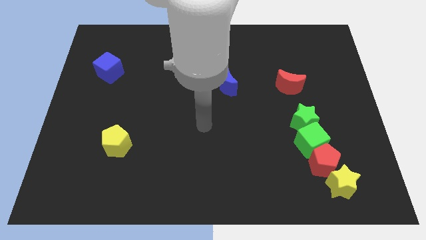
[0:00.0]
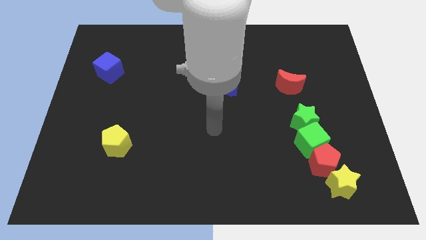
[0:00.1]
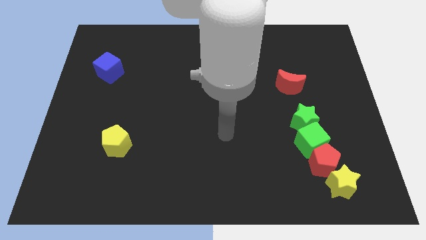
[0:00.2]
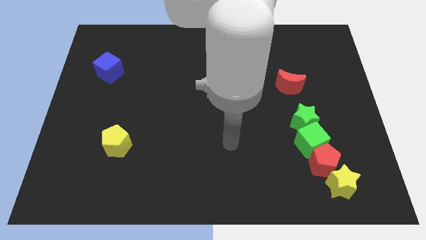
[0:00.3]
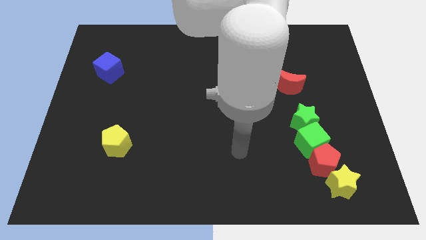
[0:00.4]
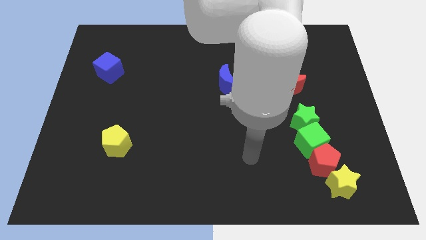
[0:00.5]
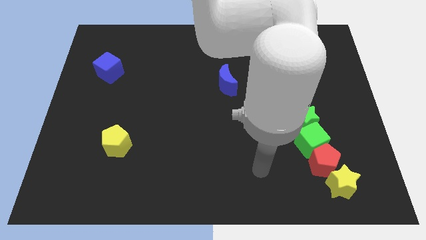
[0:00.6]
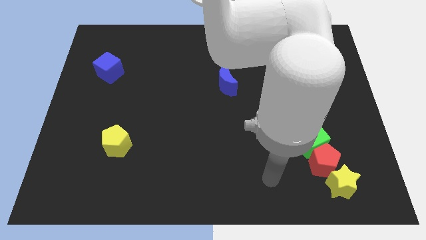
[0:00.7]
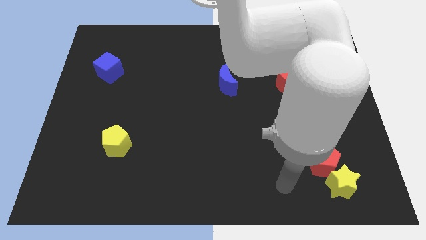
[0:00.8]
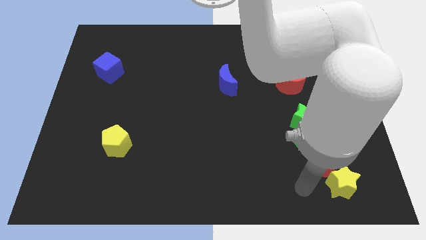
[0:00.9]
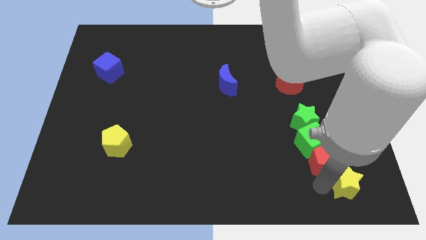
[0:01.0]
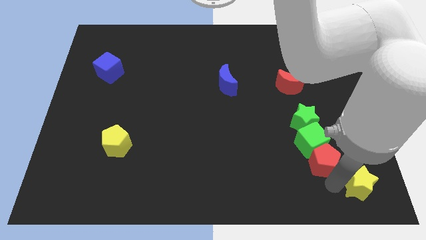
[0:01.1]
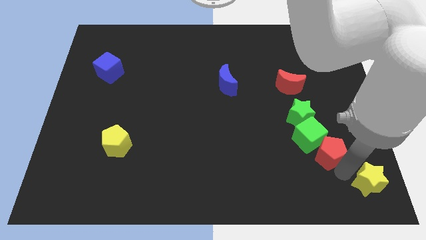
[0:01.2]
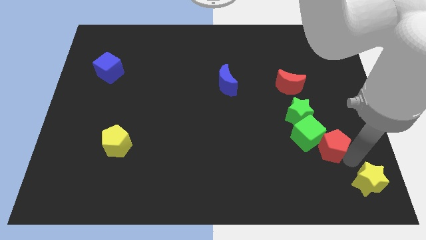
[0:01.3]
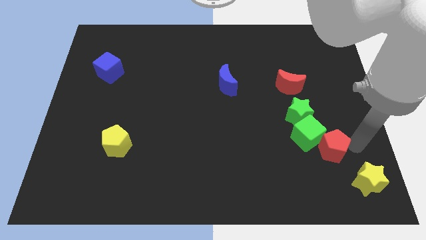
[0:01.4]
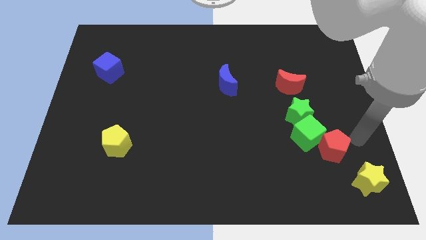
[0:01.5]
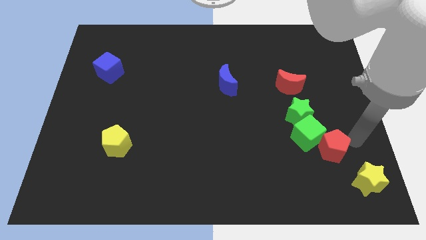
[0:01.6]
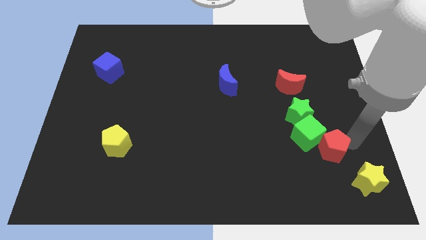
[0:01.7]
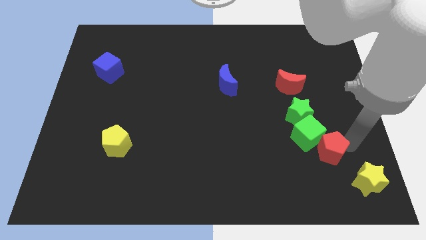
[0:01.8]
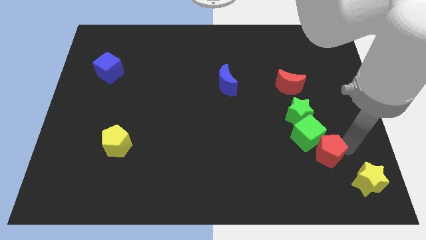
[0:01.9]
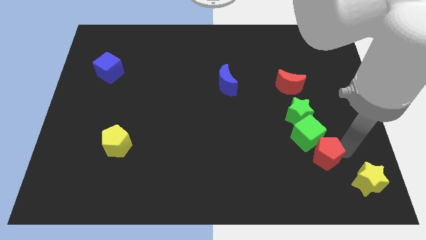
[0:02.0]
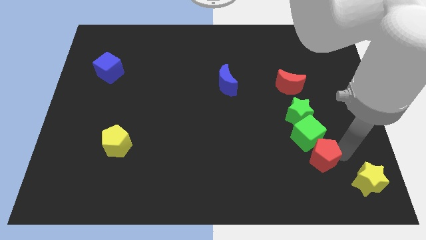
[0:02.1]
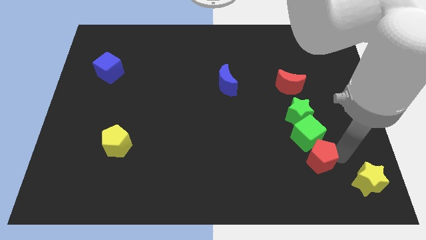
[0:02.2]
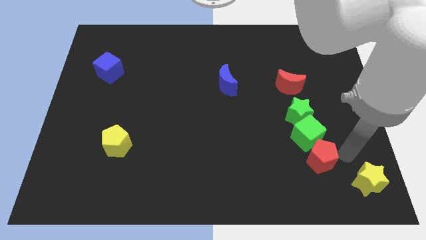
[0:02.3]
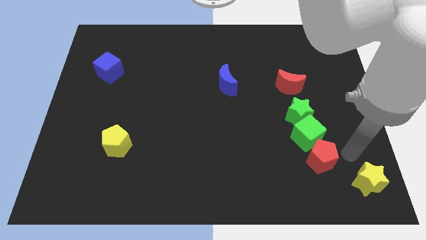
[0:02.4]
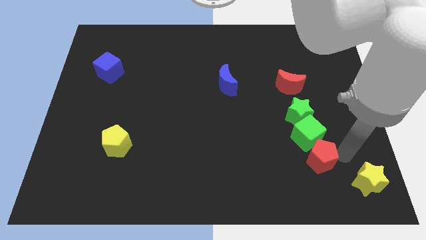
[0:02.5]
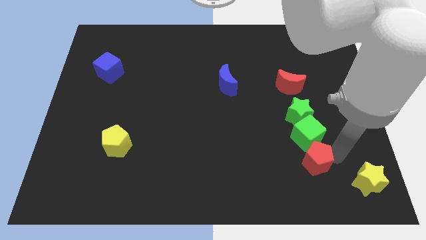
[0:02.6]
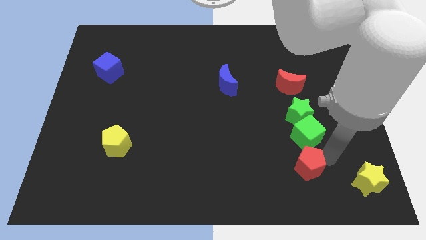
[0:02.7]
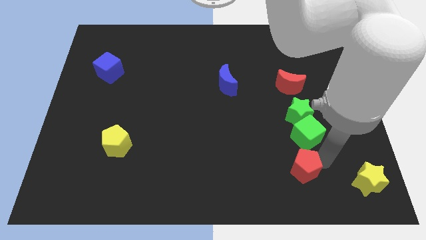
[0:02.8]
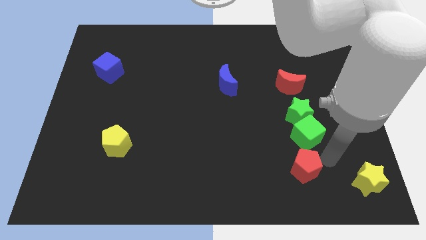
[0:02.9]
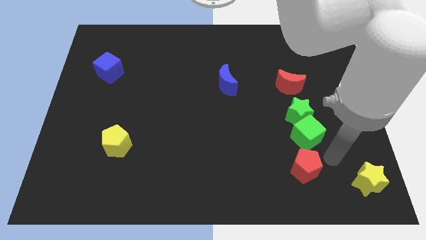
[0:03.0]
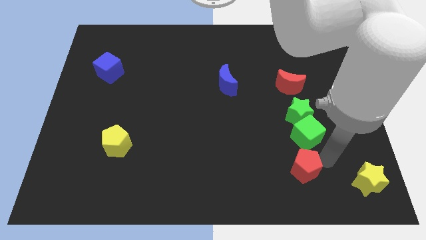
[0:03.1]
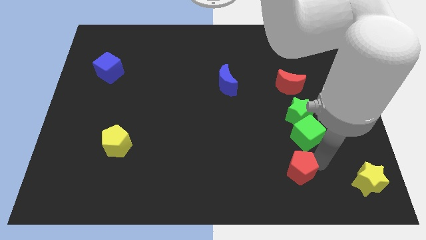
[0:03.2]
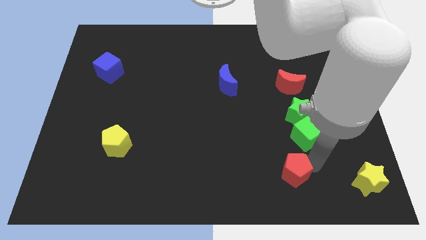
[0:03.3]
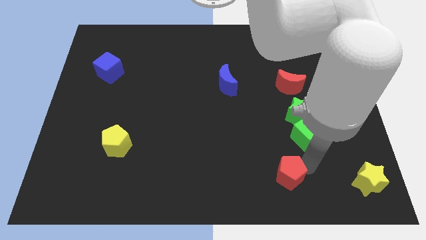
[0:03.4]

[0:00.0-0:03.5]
move the red pentagon away from the green cube and yellow star

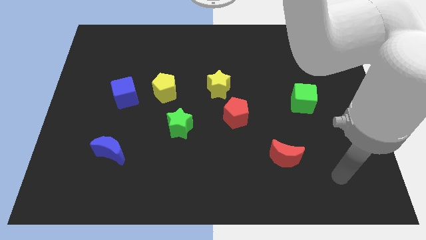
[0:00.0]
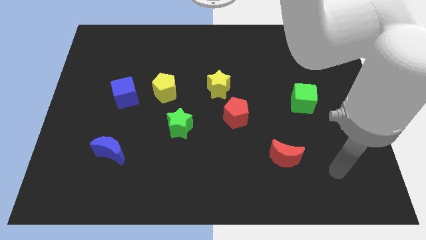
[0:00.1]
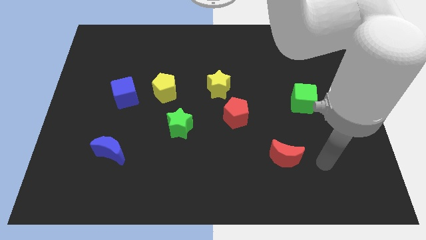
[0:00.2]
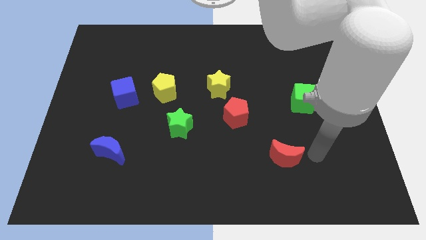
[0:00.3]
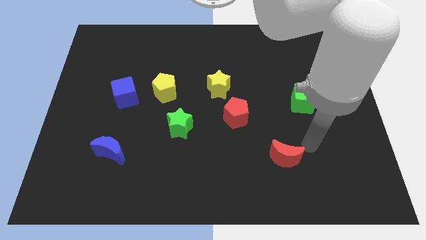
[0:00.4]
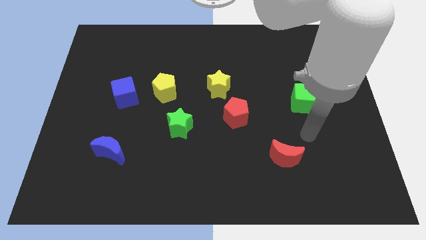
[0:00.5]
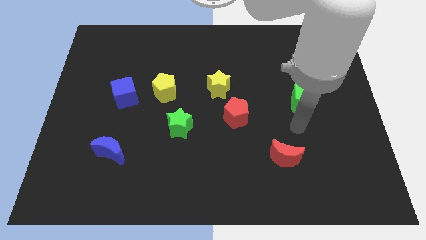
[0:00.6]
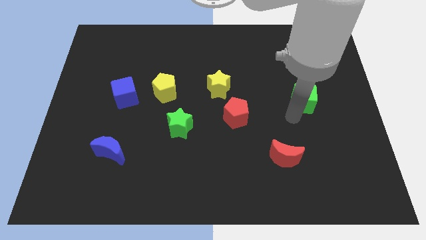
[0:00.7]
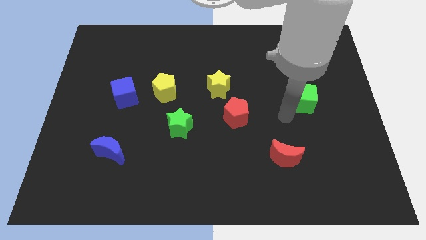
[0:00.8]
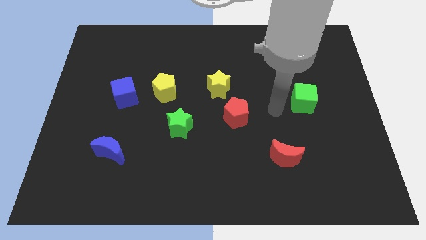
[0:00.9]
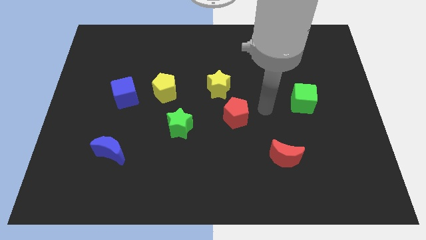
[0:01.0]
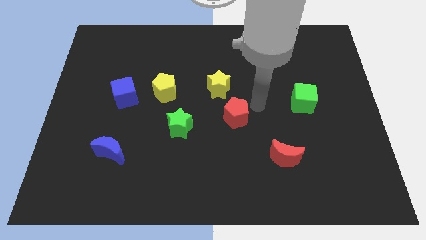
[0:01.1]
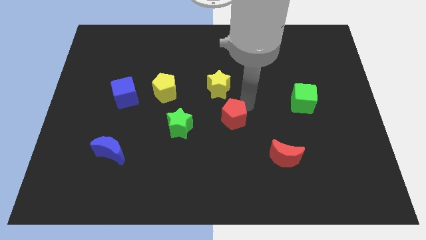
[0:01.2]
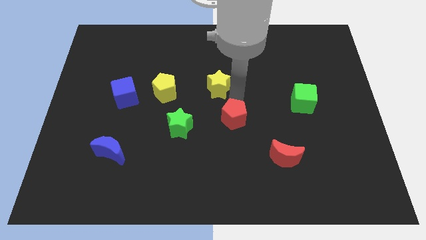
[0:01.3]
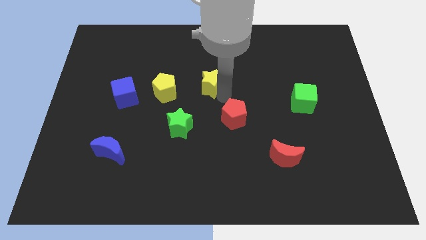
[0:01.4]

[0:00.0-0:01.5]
move the red pentagon away from the yellow star

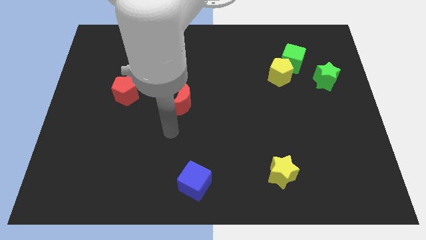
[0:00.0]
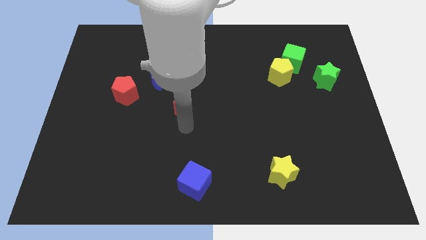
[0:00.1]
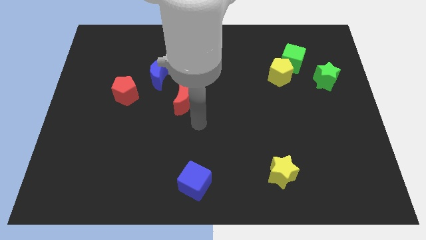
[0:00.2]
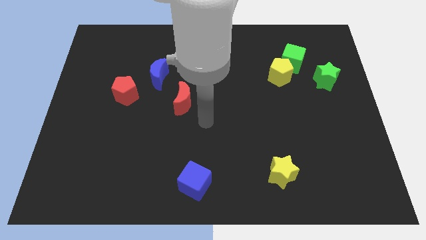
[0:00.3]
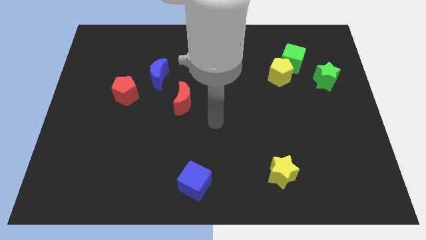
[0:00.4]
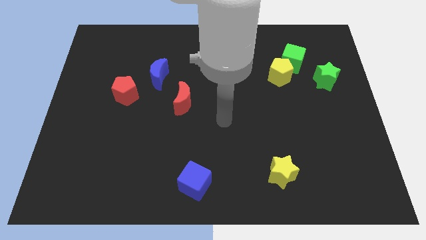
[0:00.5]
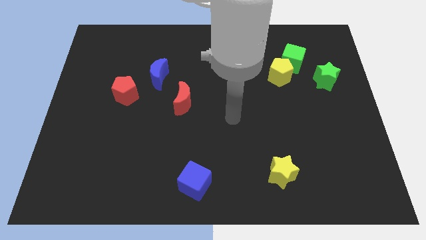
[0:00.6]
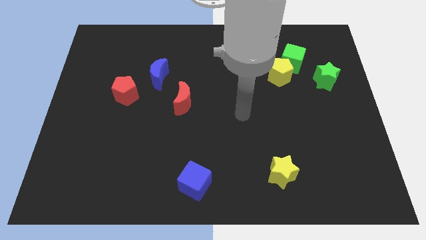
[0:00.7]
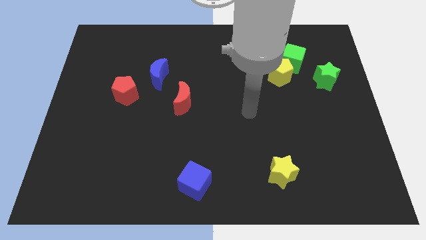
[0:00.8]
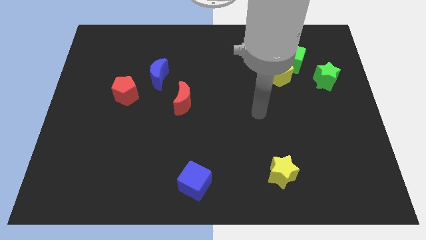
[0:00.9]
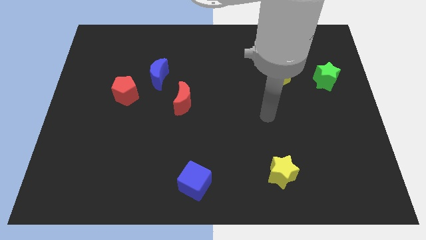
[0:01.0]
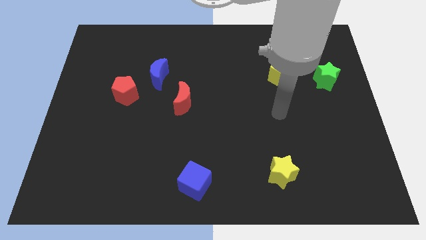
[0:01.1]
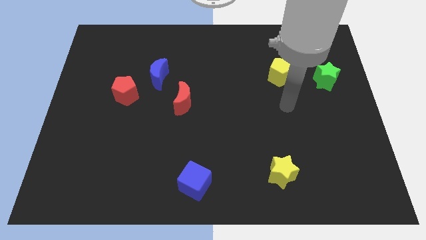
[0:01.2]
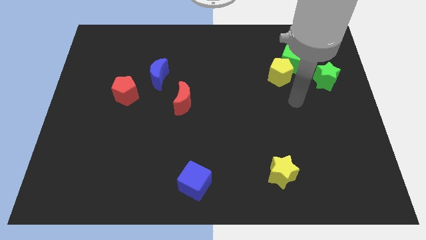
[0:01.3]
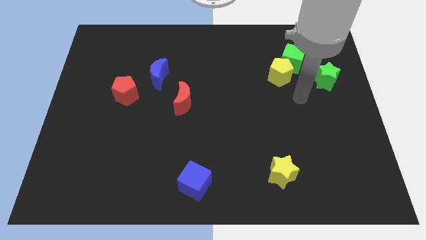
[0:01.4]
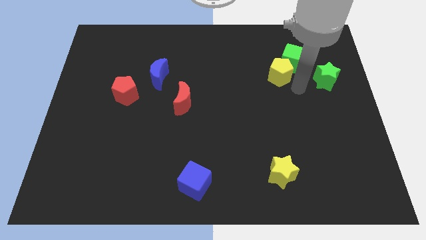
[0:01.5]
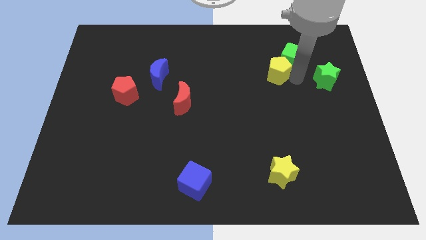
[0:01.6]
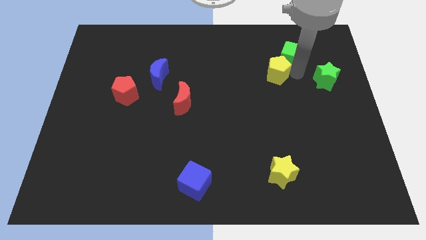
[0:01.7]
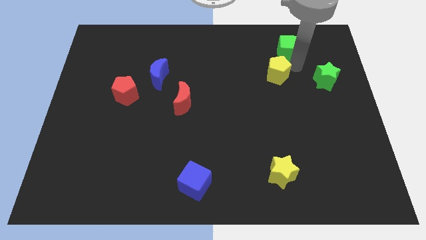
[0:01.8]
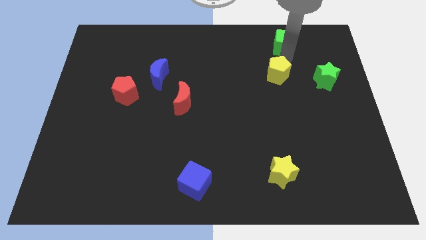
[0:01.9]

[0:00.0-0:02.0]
move the yellow pentagon away from the green cube

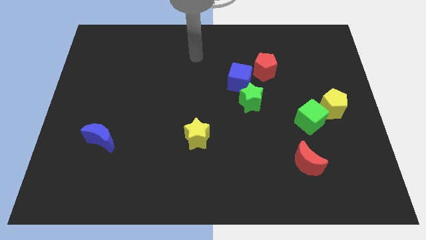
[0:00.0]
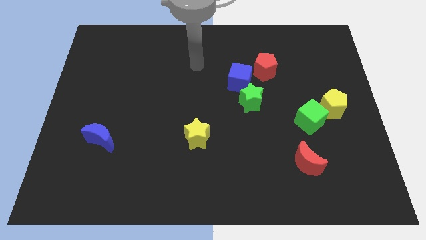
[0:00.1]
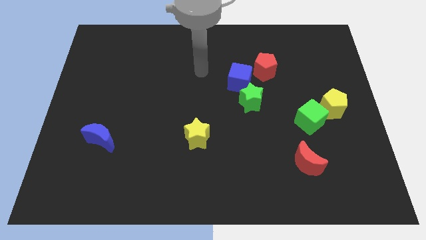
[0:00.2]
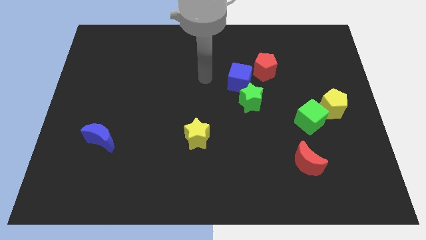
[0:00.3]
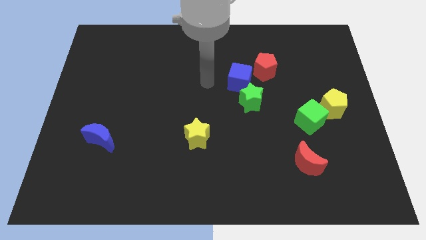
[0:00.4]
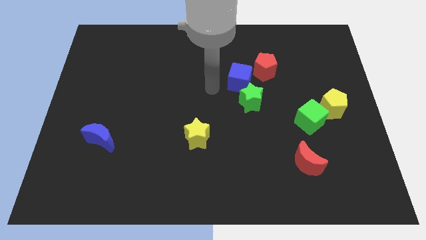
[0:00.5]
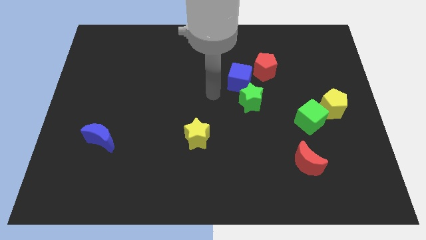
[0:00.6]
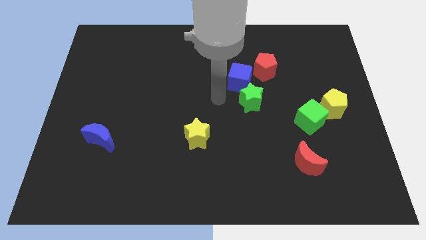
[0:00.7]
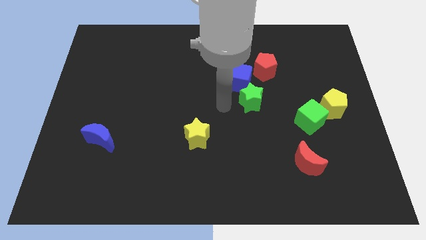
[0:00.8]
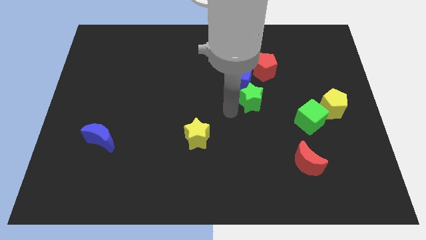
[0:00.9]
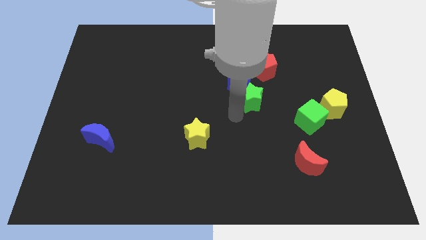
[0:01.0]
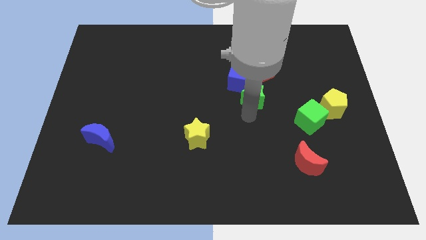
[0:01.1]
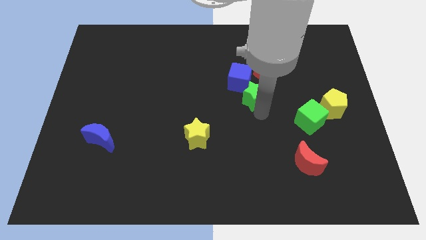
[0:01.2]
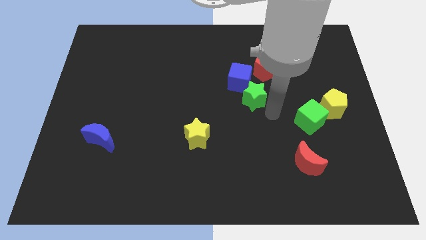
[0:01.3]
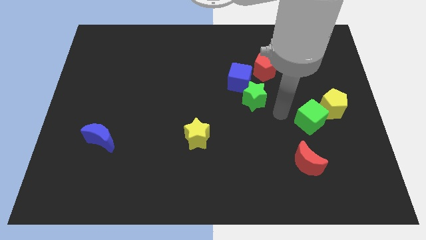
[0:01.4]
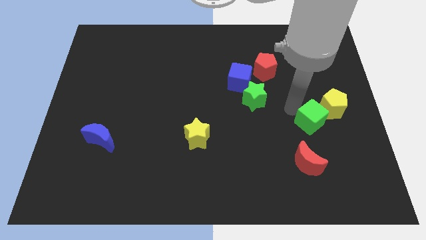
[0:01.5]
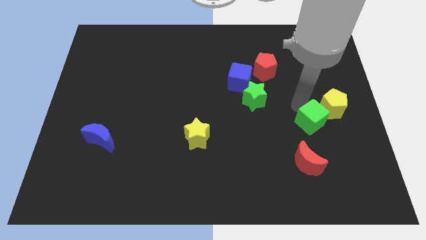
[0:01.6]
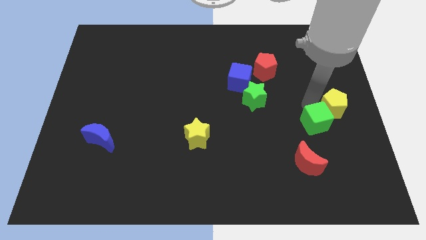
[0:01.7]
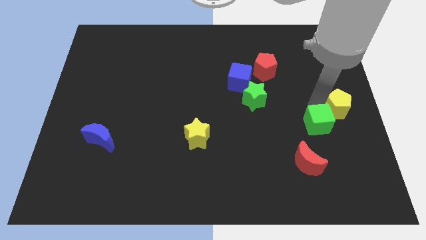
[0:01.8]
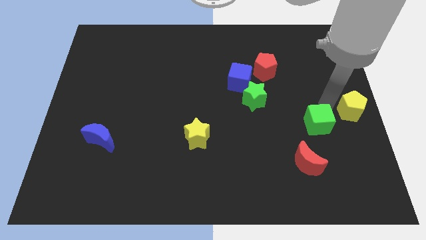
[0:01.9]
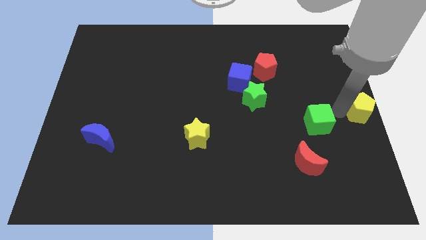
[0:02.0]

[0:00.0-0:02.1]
separate the green cube from the yellow pentagon

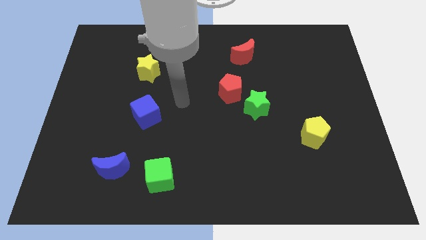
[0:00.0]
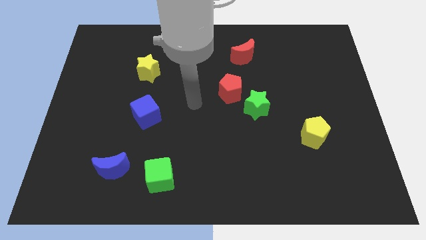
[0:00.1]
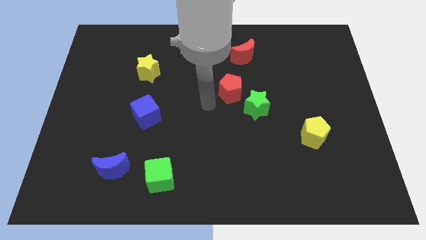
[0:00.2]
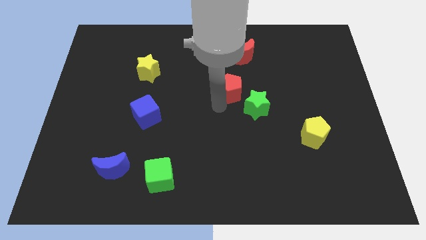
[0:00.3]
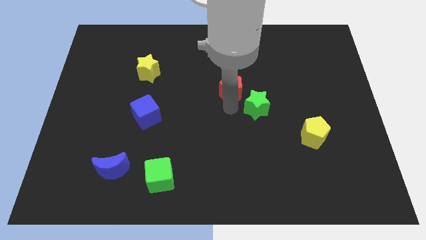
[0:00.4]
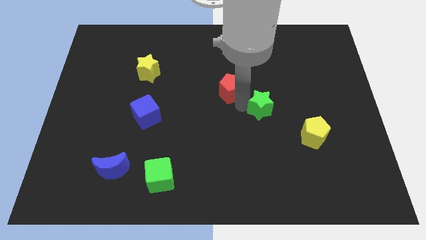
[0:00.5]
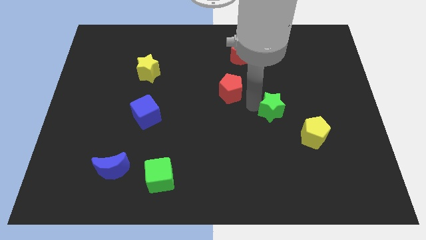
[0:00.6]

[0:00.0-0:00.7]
move the red pentagon away from the green star
